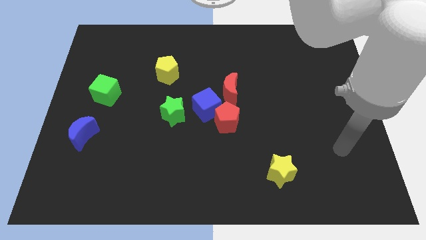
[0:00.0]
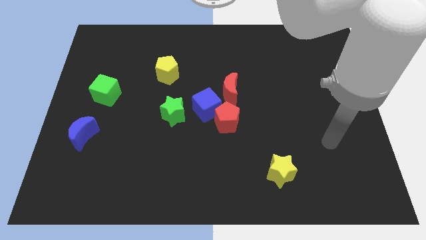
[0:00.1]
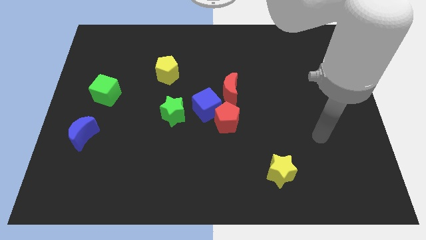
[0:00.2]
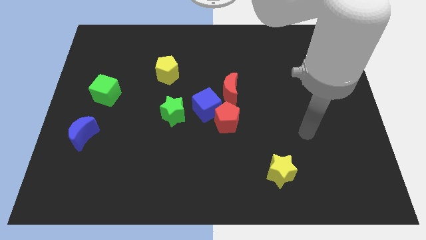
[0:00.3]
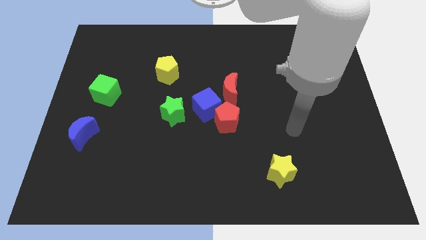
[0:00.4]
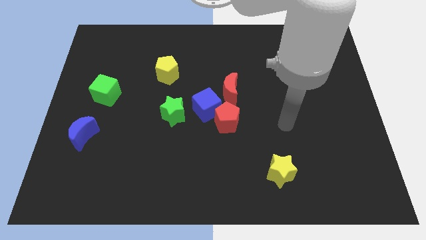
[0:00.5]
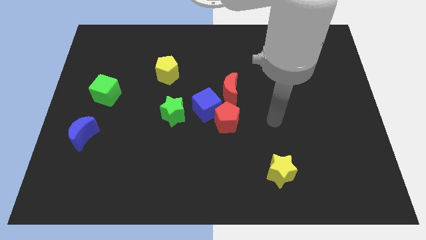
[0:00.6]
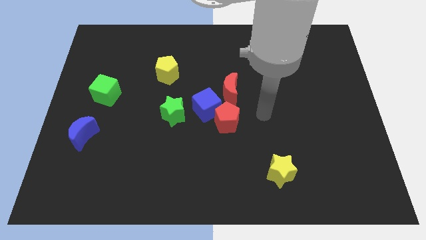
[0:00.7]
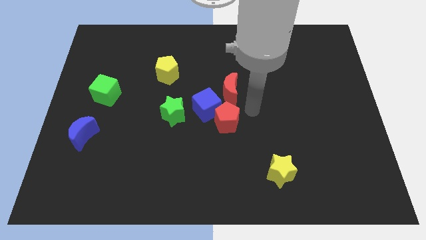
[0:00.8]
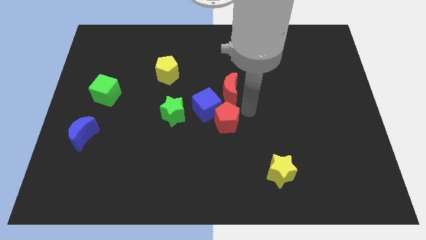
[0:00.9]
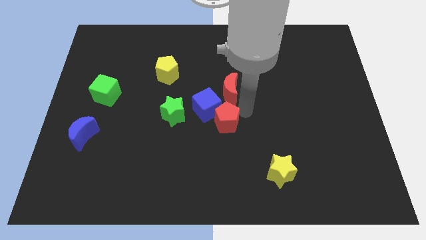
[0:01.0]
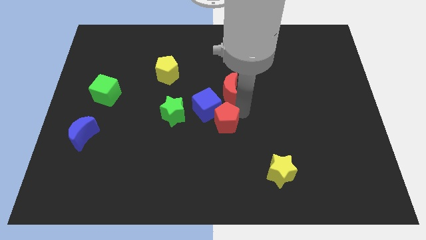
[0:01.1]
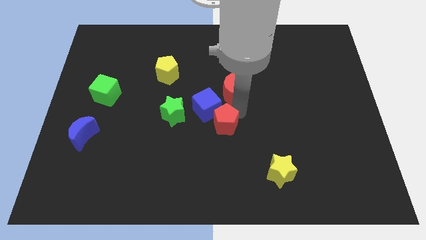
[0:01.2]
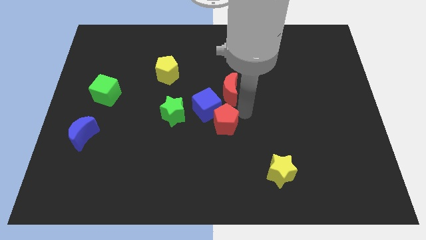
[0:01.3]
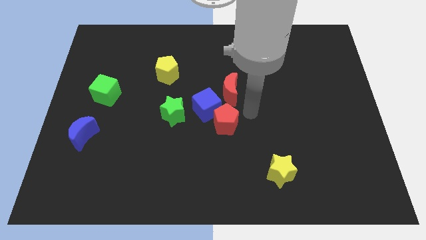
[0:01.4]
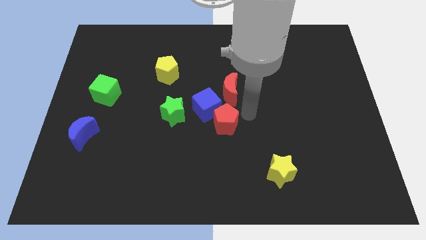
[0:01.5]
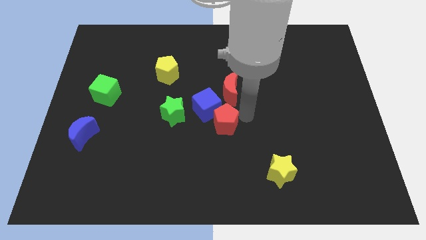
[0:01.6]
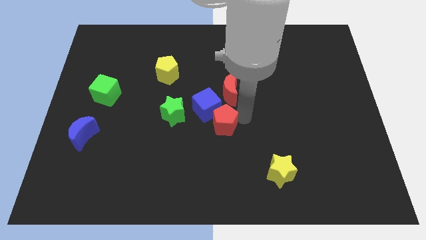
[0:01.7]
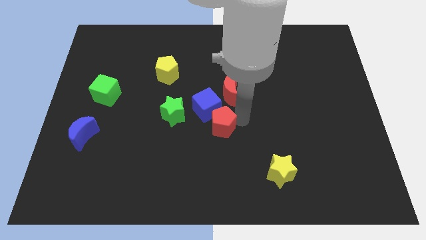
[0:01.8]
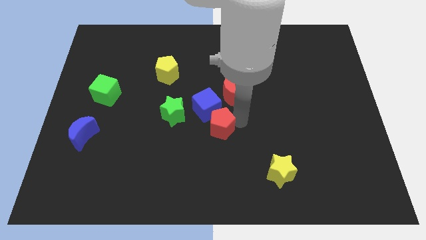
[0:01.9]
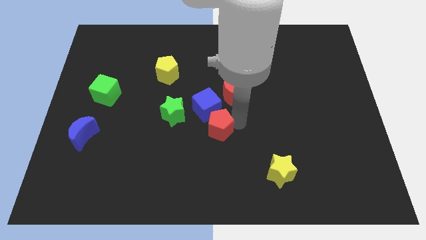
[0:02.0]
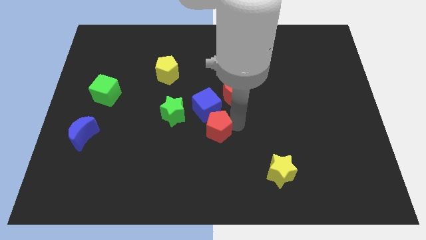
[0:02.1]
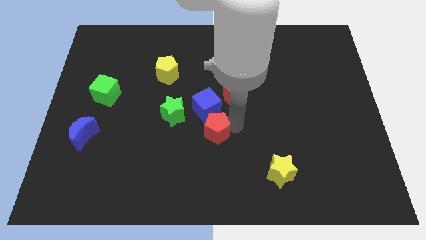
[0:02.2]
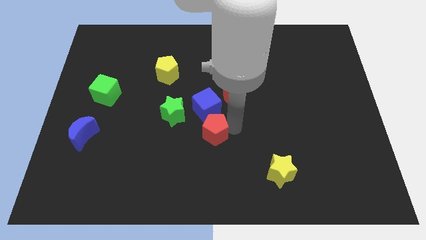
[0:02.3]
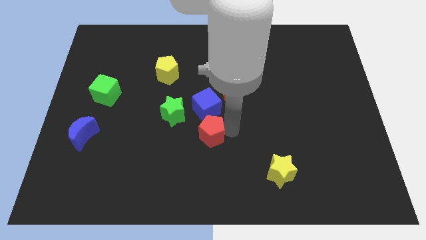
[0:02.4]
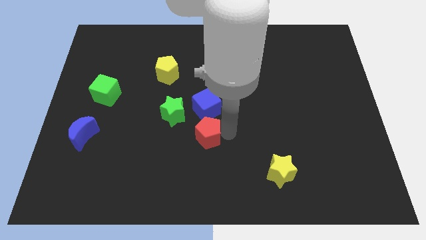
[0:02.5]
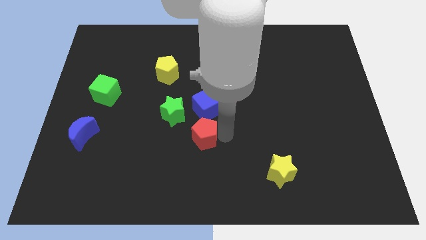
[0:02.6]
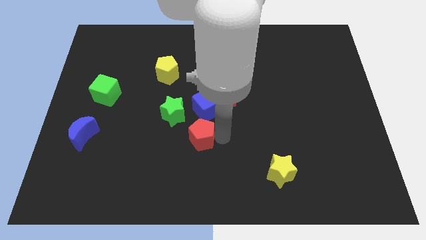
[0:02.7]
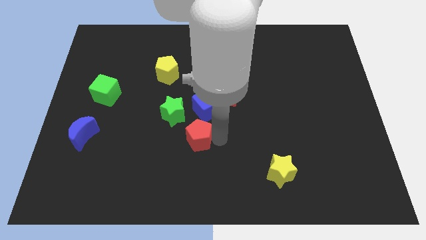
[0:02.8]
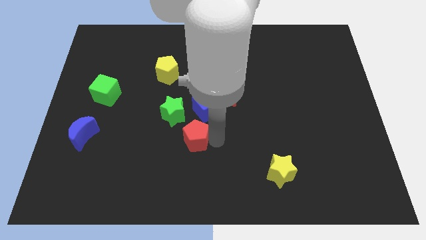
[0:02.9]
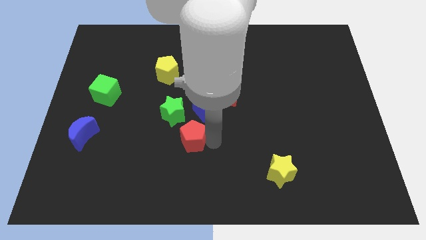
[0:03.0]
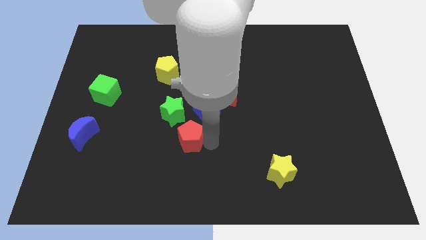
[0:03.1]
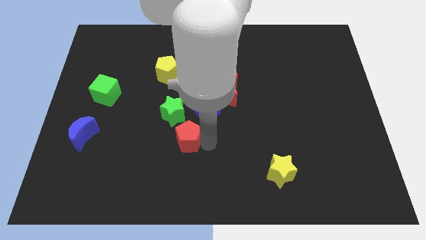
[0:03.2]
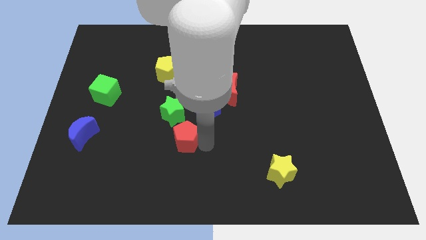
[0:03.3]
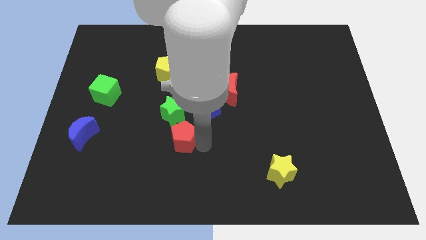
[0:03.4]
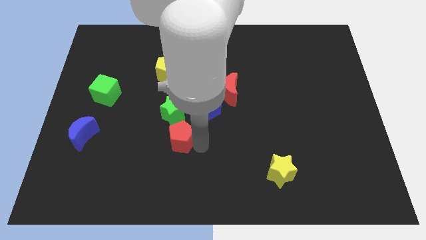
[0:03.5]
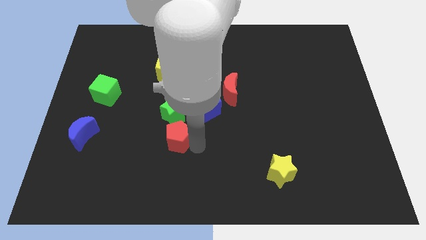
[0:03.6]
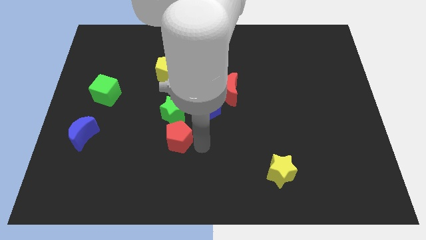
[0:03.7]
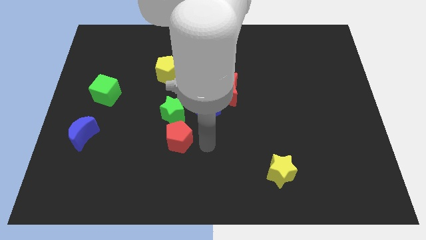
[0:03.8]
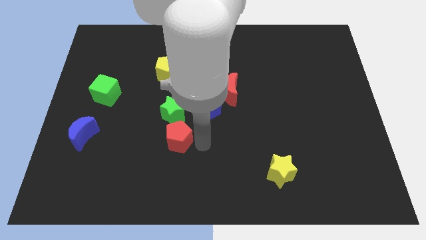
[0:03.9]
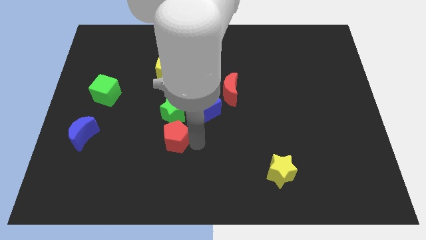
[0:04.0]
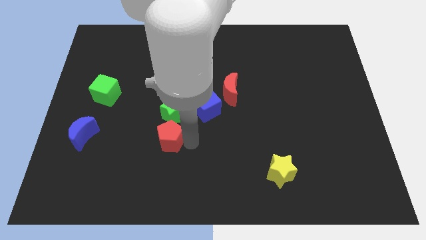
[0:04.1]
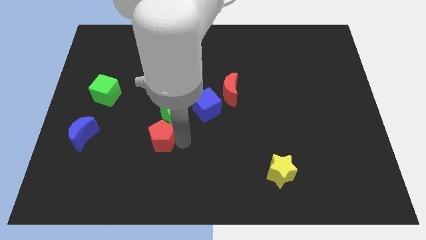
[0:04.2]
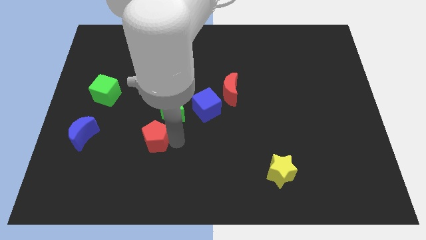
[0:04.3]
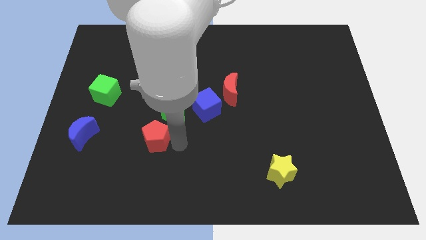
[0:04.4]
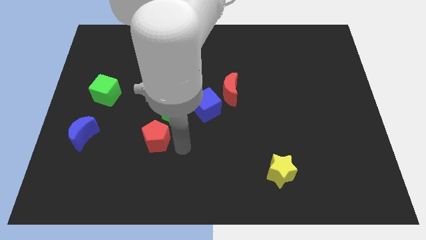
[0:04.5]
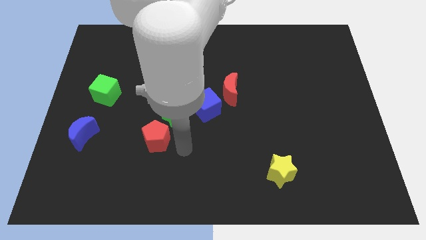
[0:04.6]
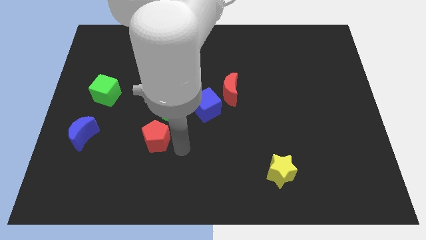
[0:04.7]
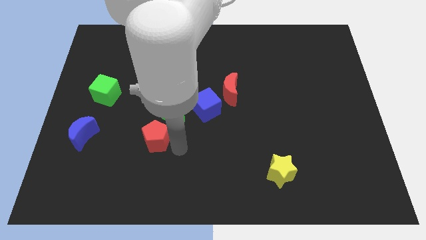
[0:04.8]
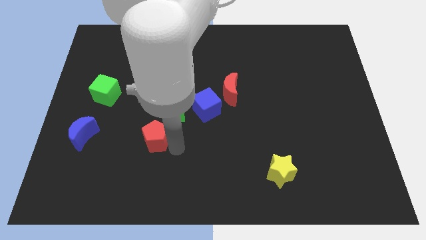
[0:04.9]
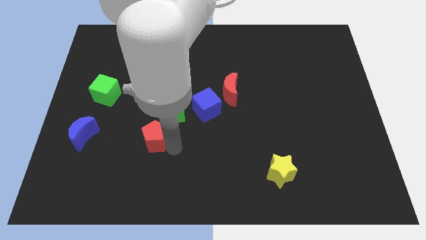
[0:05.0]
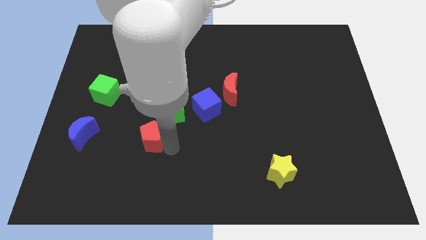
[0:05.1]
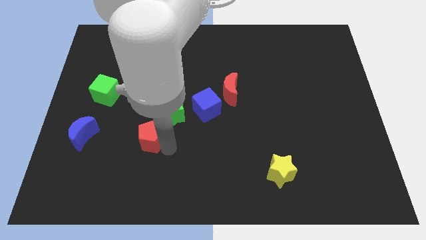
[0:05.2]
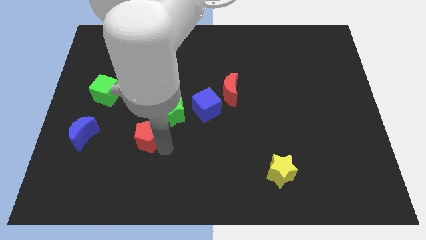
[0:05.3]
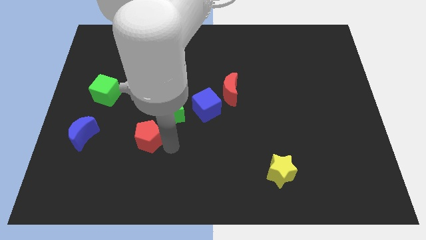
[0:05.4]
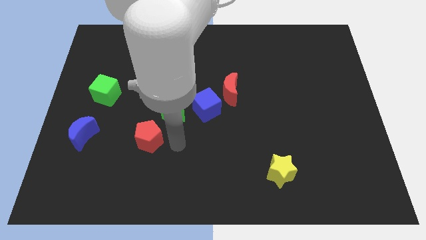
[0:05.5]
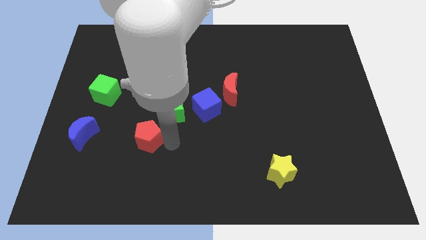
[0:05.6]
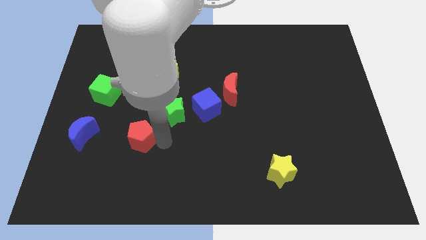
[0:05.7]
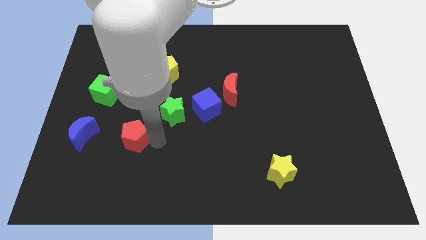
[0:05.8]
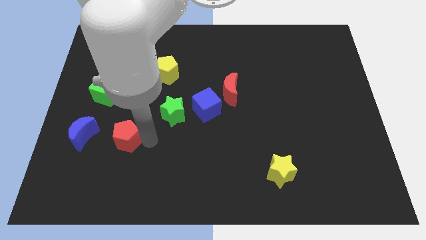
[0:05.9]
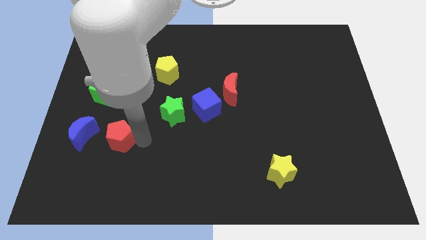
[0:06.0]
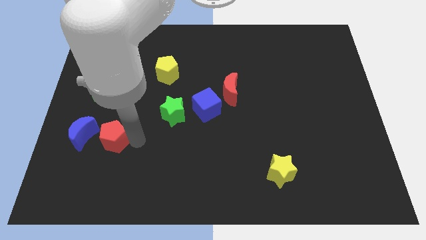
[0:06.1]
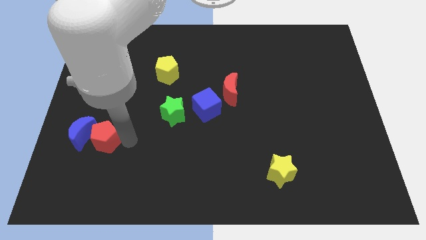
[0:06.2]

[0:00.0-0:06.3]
put the red pentagon close to the blue moon

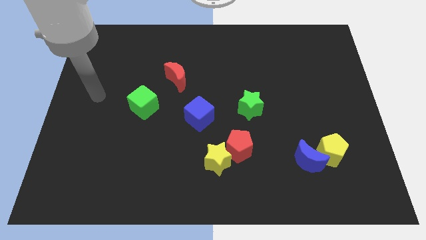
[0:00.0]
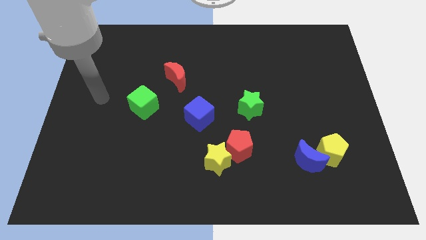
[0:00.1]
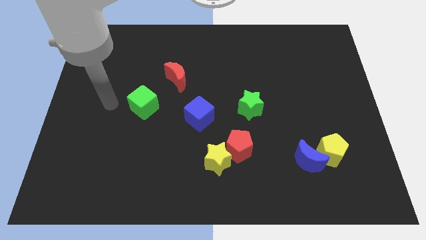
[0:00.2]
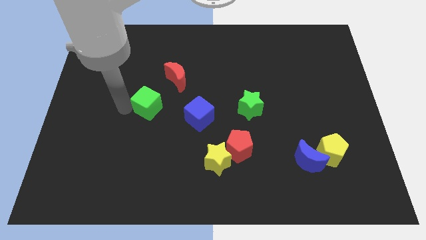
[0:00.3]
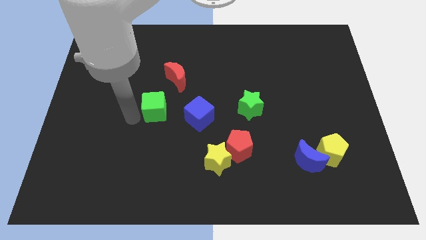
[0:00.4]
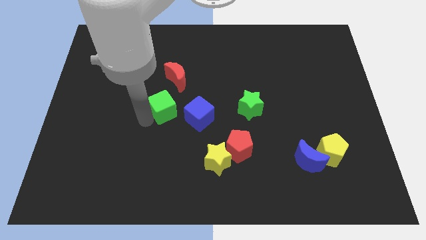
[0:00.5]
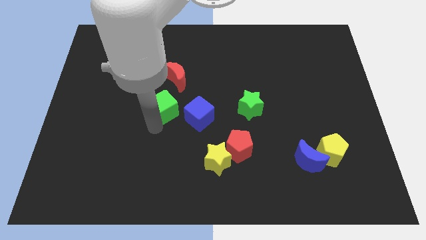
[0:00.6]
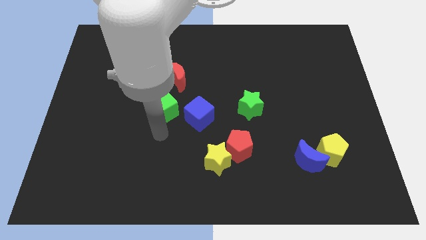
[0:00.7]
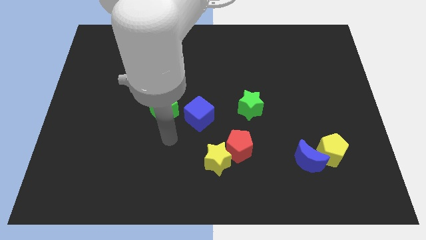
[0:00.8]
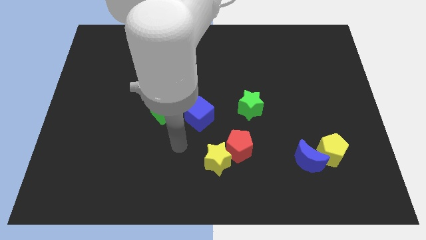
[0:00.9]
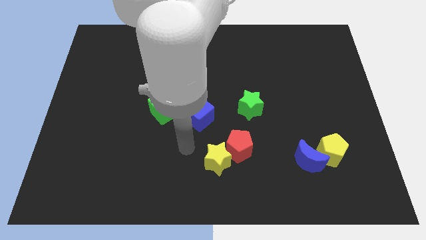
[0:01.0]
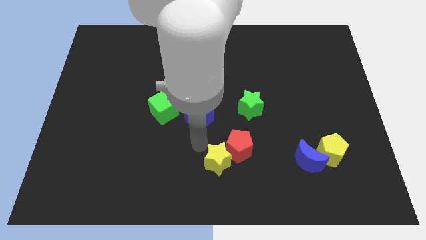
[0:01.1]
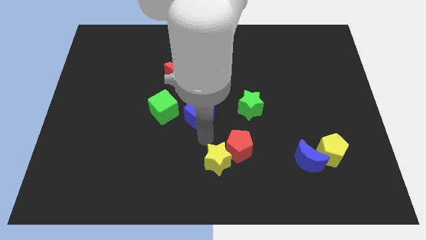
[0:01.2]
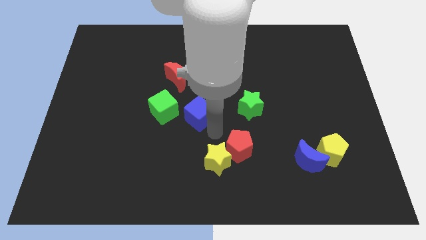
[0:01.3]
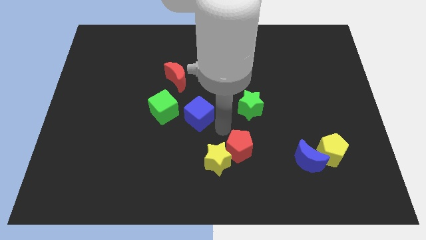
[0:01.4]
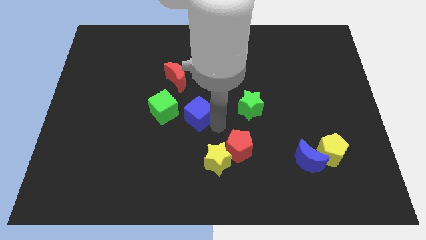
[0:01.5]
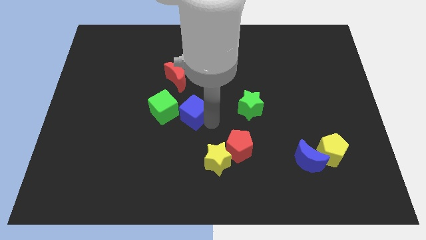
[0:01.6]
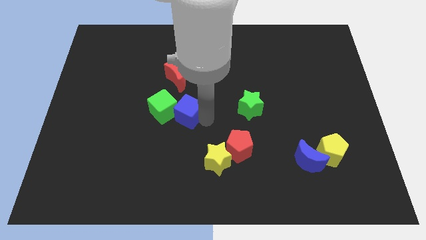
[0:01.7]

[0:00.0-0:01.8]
move the blue cube to the green cube
